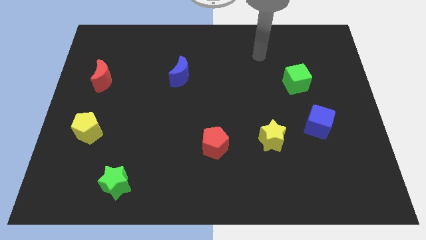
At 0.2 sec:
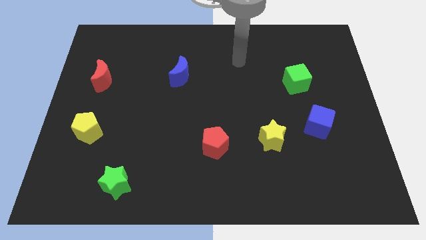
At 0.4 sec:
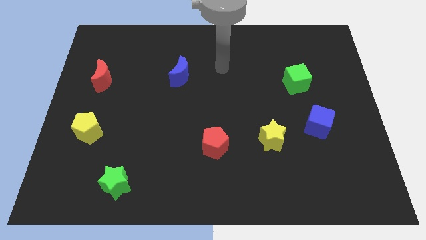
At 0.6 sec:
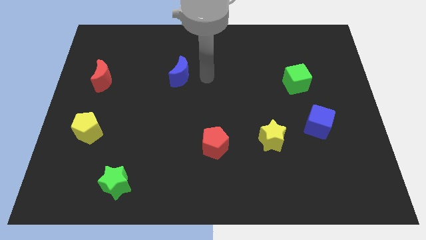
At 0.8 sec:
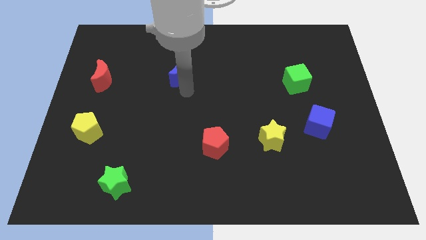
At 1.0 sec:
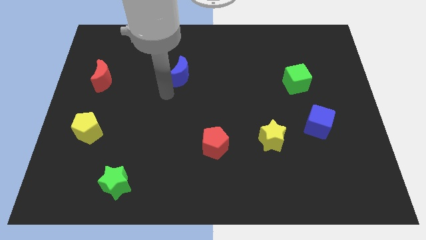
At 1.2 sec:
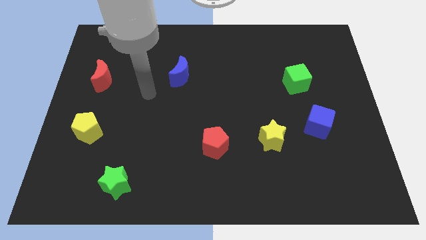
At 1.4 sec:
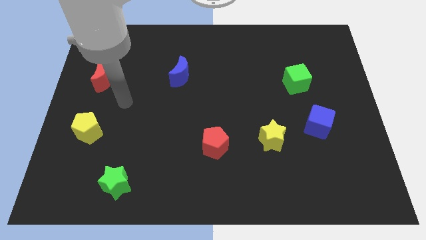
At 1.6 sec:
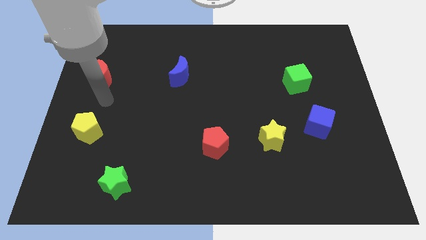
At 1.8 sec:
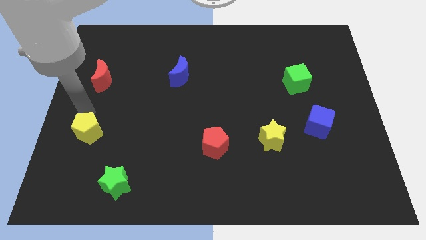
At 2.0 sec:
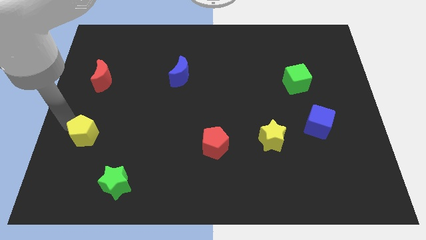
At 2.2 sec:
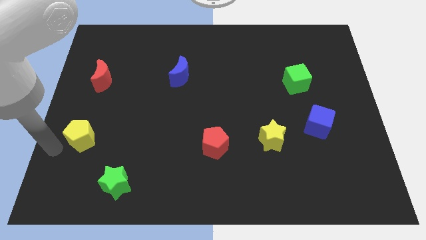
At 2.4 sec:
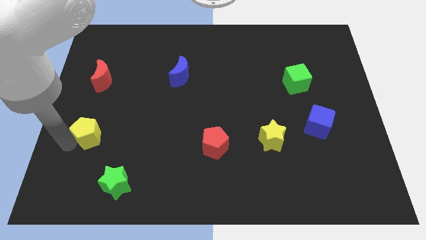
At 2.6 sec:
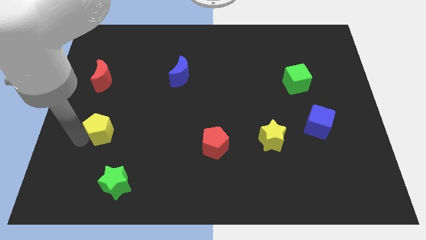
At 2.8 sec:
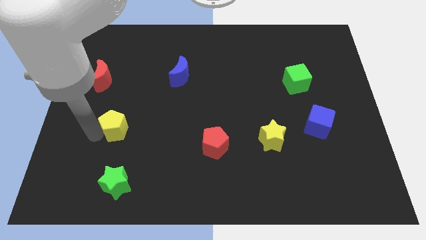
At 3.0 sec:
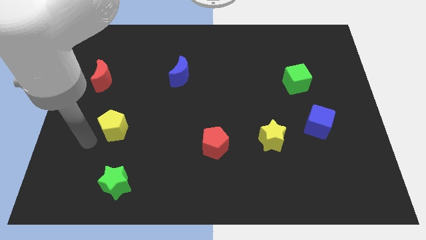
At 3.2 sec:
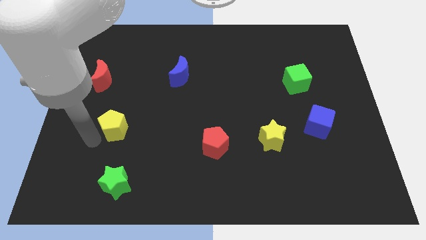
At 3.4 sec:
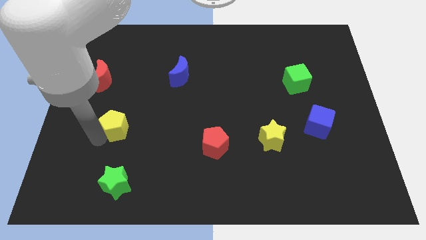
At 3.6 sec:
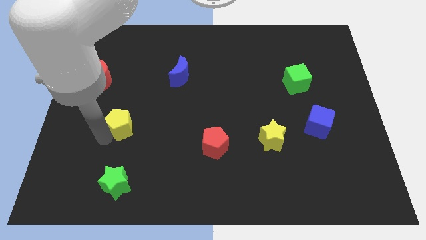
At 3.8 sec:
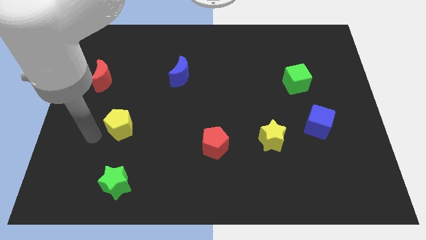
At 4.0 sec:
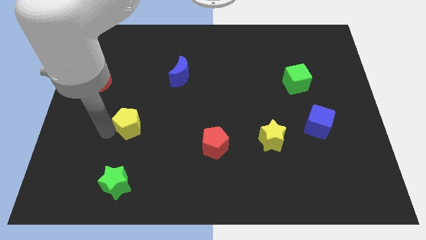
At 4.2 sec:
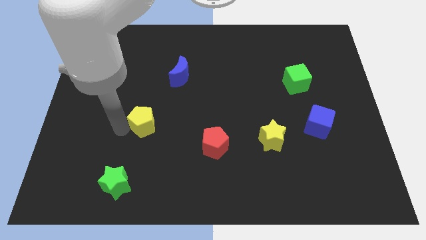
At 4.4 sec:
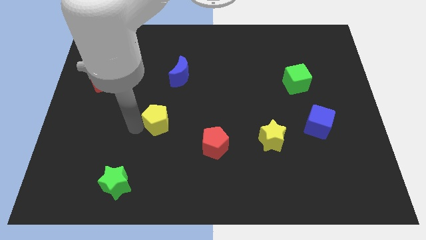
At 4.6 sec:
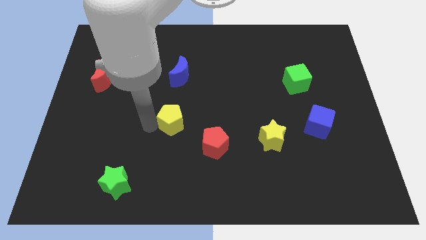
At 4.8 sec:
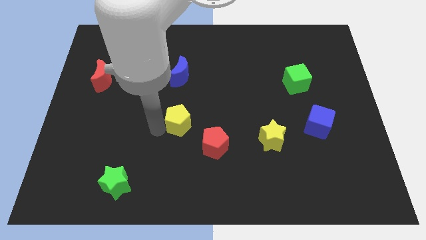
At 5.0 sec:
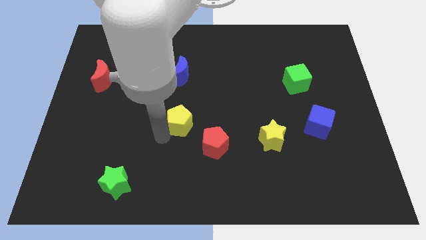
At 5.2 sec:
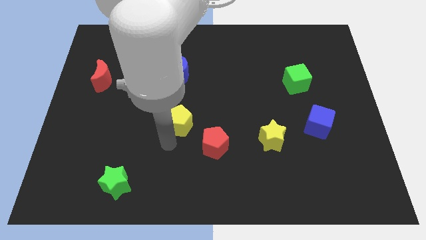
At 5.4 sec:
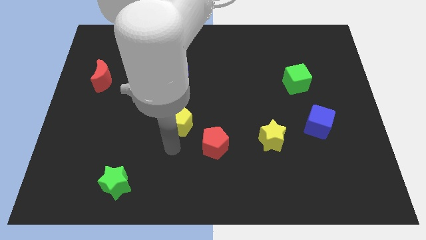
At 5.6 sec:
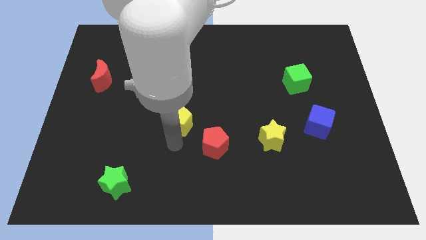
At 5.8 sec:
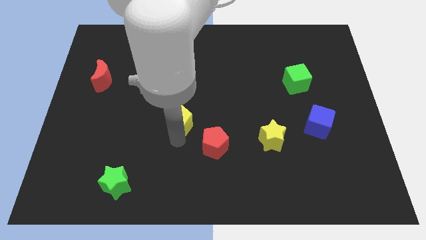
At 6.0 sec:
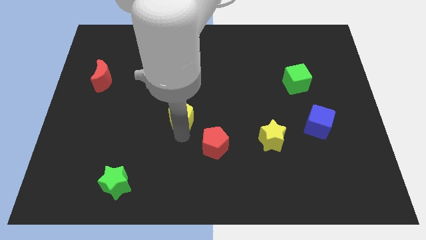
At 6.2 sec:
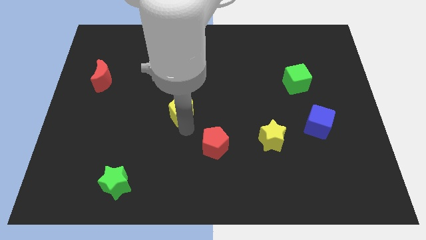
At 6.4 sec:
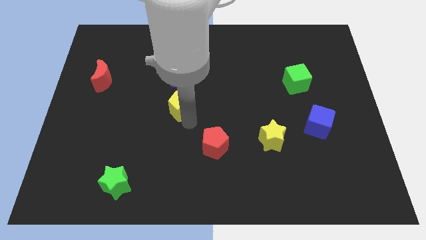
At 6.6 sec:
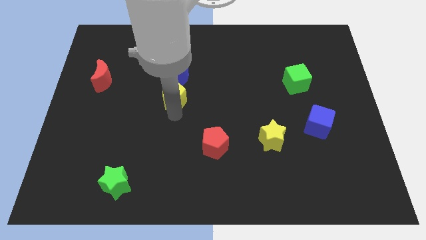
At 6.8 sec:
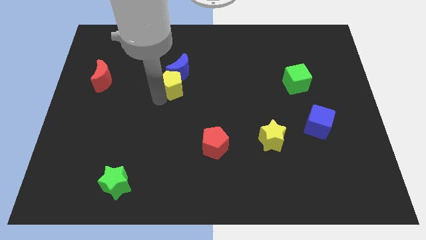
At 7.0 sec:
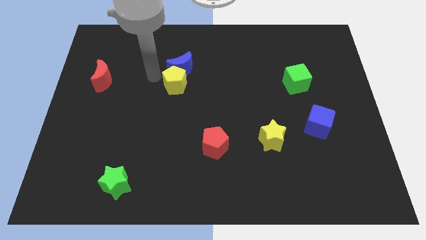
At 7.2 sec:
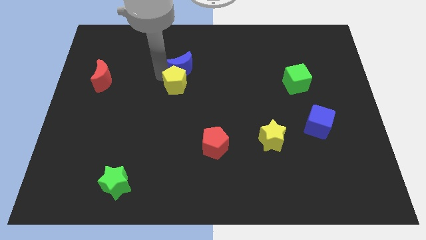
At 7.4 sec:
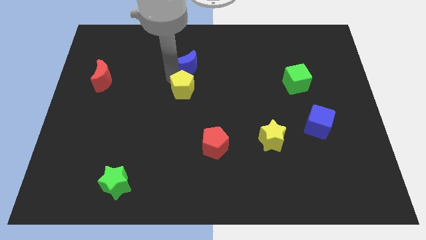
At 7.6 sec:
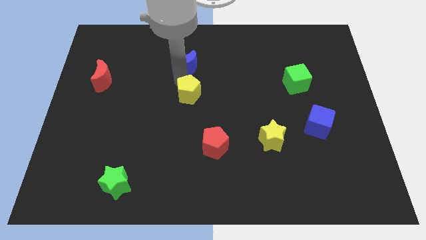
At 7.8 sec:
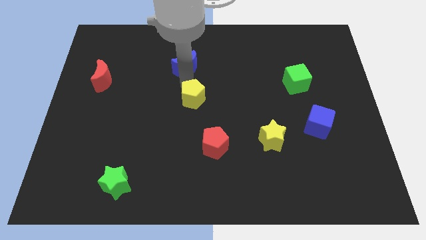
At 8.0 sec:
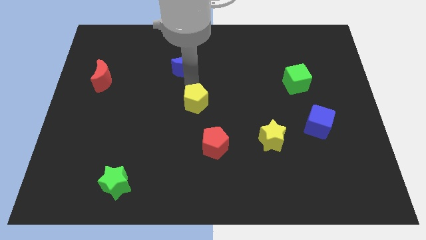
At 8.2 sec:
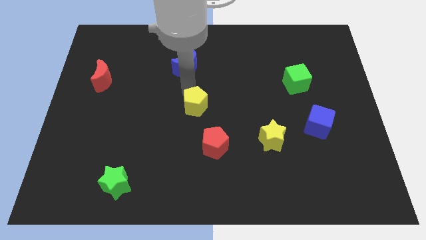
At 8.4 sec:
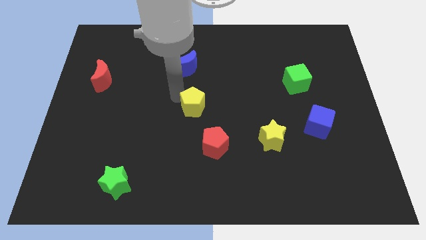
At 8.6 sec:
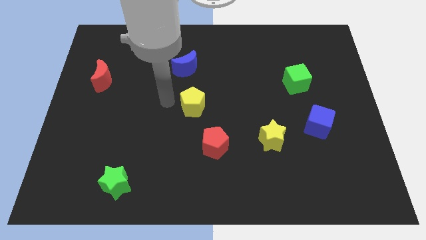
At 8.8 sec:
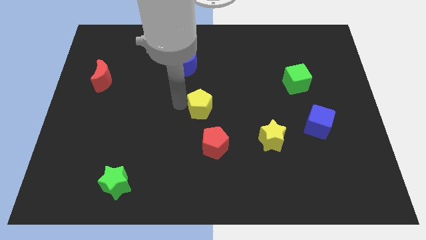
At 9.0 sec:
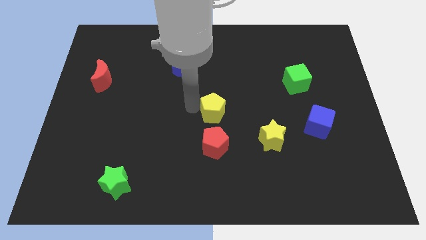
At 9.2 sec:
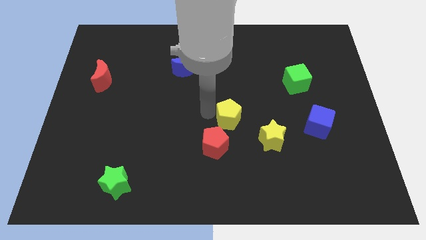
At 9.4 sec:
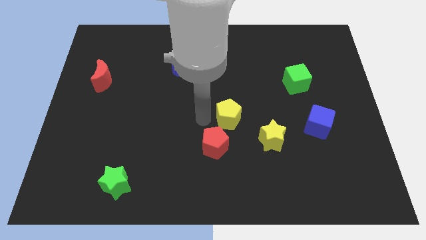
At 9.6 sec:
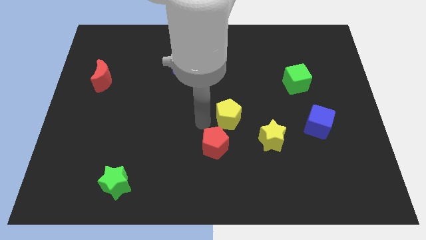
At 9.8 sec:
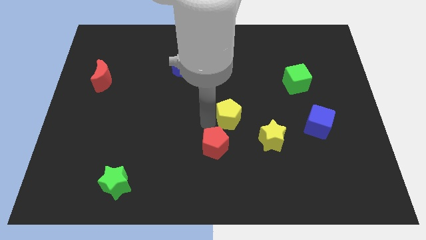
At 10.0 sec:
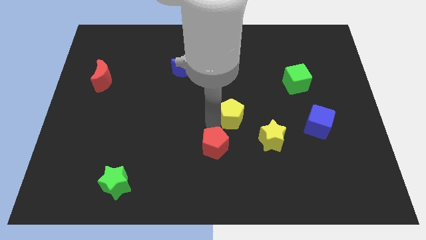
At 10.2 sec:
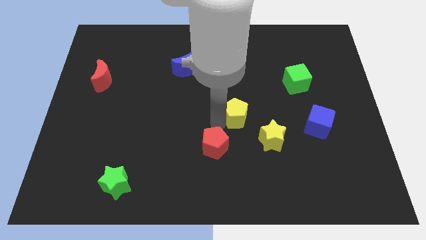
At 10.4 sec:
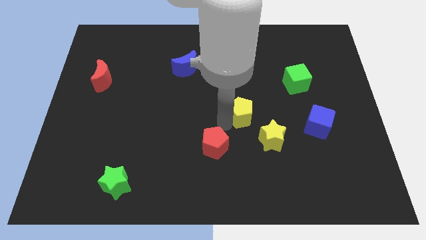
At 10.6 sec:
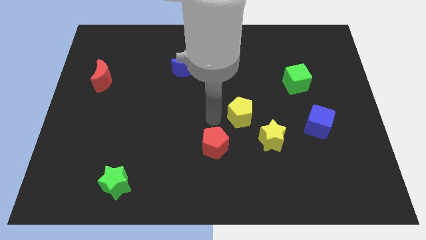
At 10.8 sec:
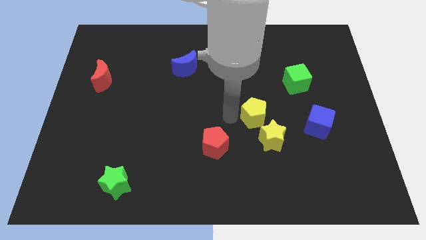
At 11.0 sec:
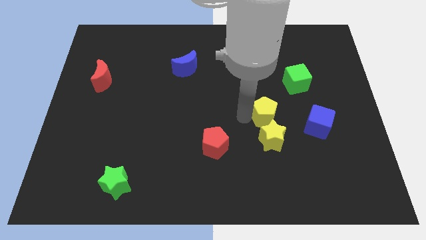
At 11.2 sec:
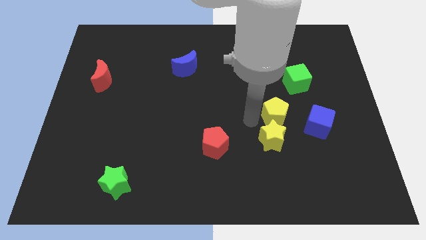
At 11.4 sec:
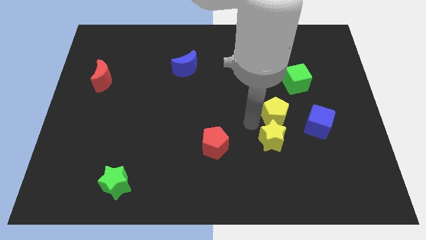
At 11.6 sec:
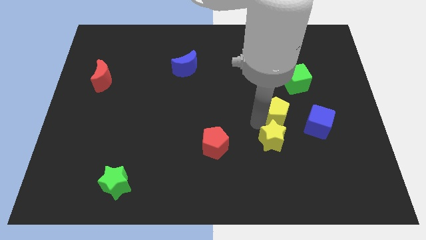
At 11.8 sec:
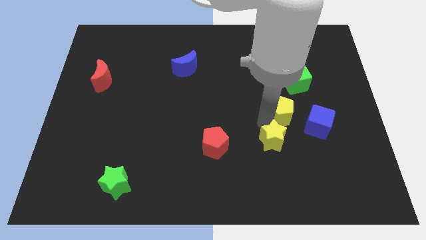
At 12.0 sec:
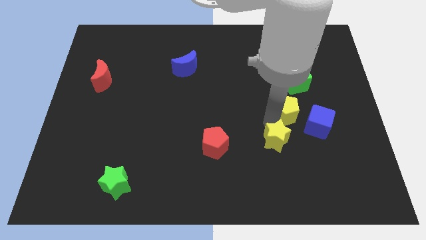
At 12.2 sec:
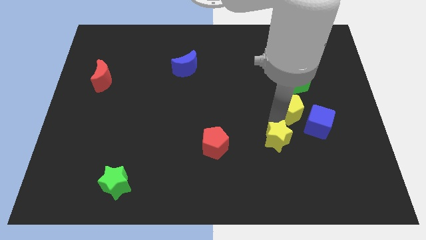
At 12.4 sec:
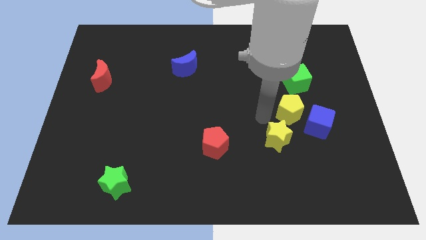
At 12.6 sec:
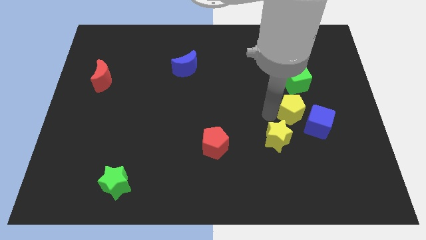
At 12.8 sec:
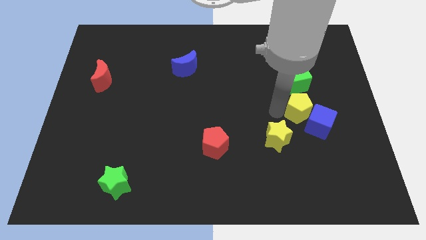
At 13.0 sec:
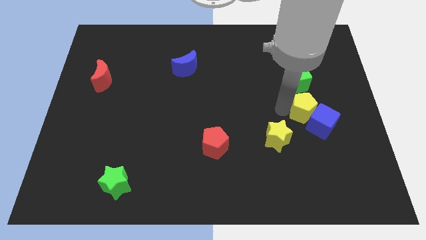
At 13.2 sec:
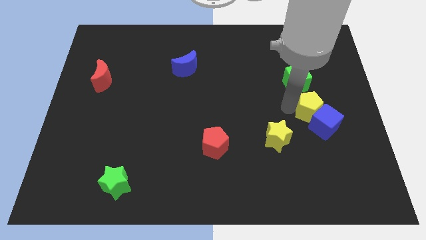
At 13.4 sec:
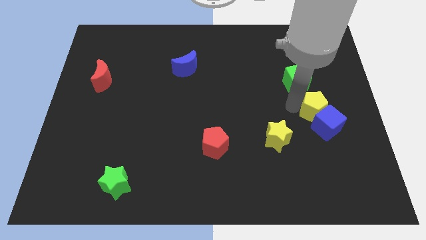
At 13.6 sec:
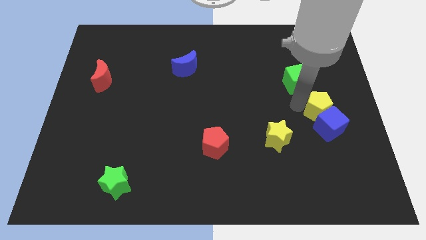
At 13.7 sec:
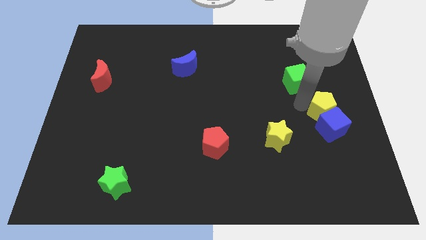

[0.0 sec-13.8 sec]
slide the yellow pentagon to the center right
